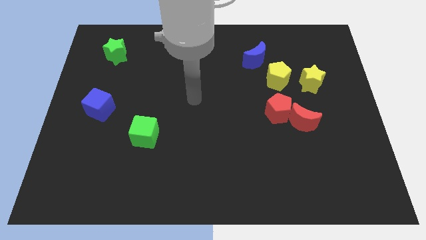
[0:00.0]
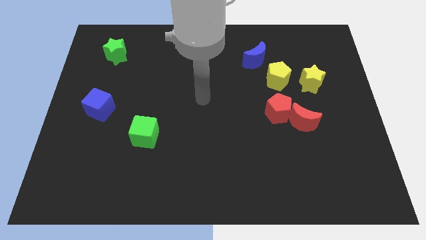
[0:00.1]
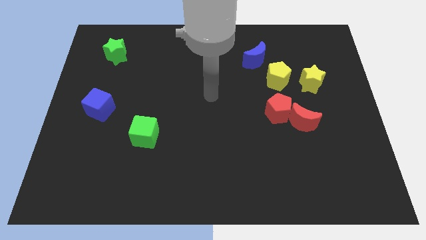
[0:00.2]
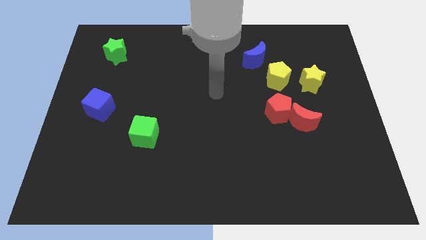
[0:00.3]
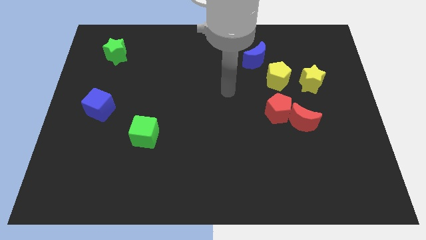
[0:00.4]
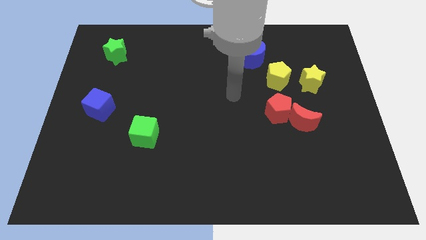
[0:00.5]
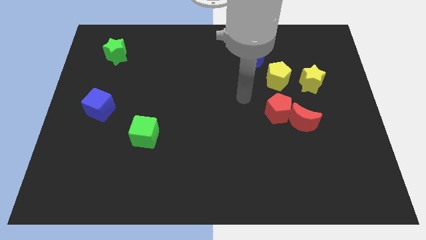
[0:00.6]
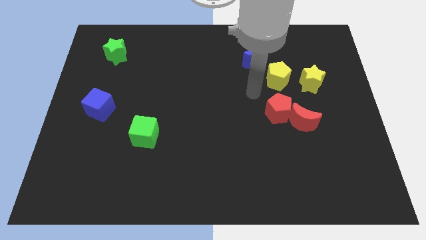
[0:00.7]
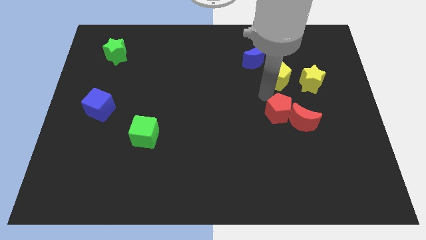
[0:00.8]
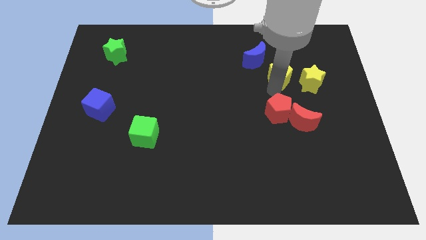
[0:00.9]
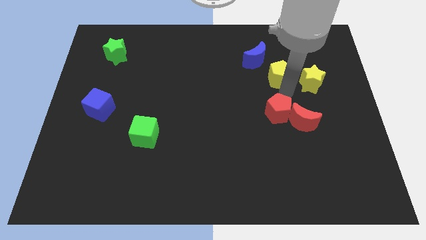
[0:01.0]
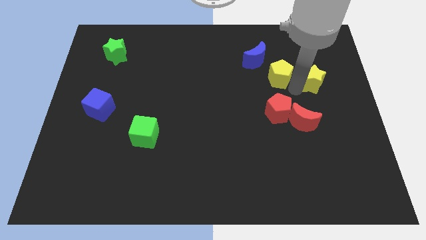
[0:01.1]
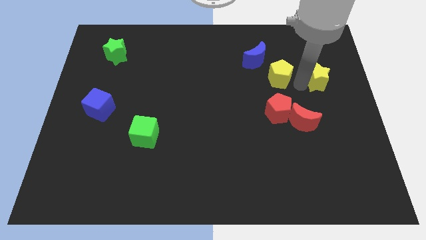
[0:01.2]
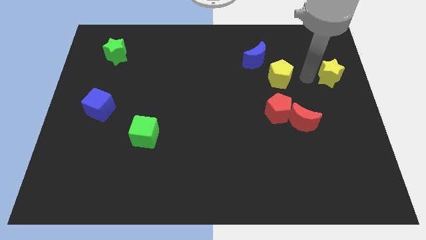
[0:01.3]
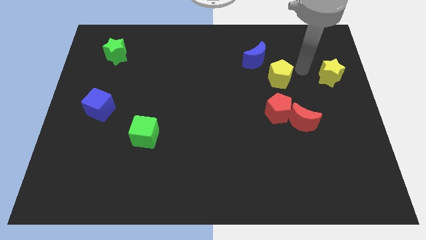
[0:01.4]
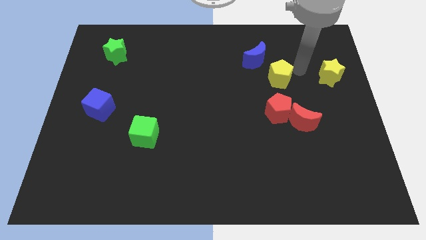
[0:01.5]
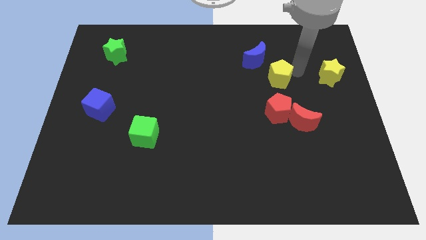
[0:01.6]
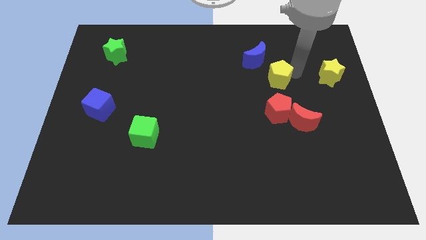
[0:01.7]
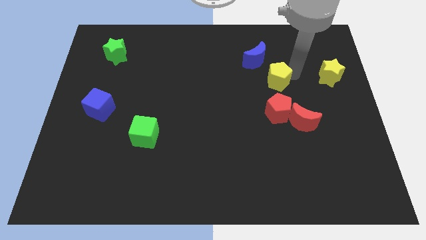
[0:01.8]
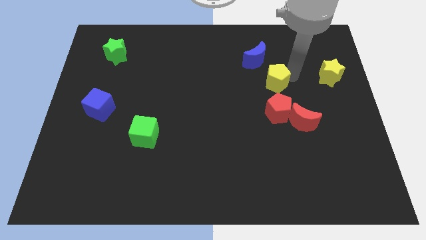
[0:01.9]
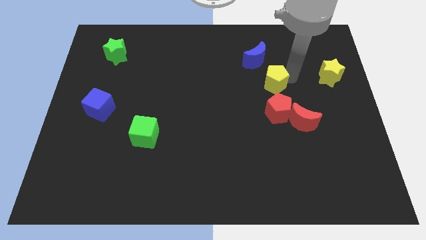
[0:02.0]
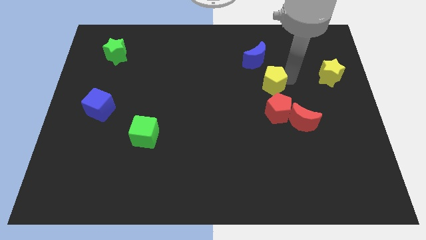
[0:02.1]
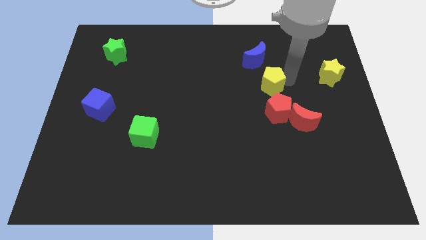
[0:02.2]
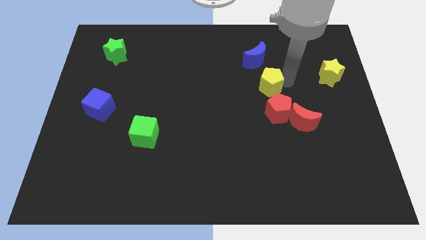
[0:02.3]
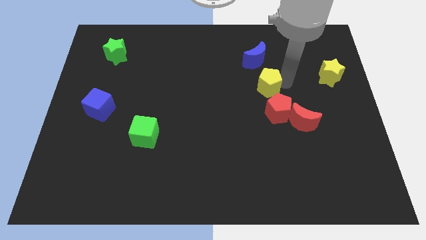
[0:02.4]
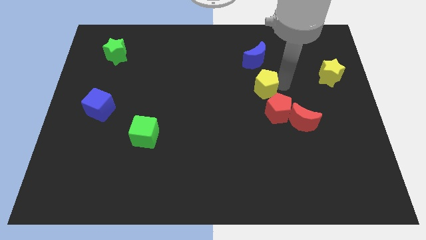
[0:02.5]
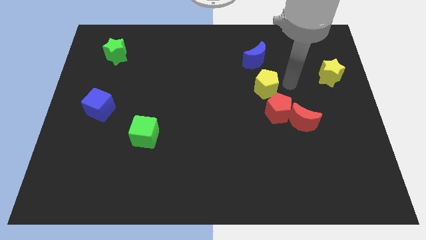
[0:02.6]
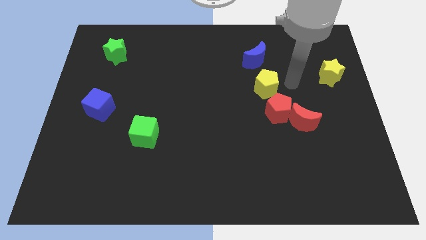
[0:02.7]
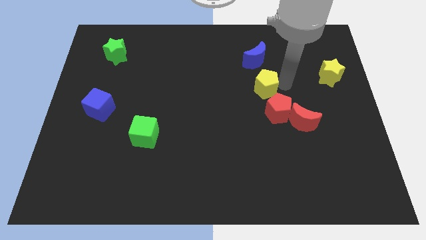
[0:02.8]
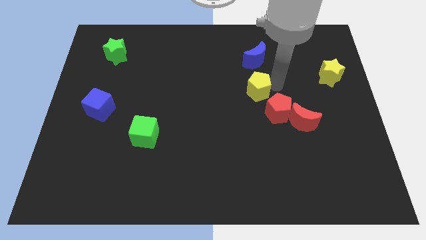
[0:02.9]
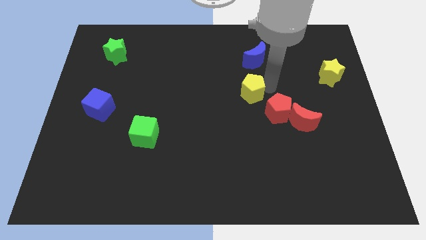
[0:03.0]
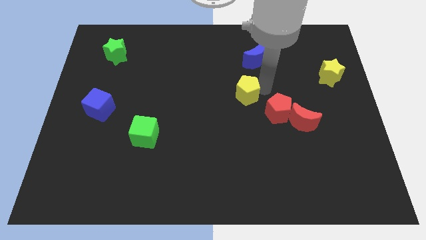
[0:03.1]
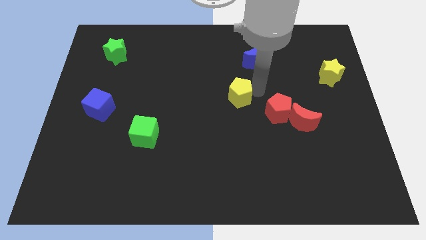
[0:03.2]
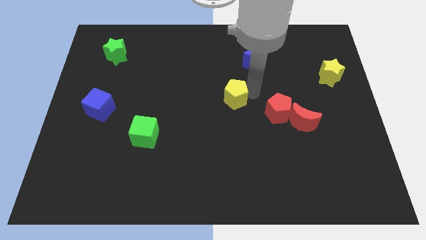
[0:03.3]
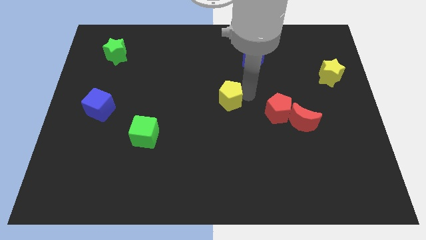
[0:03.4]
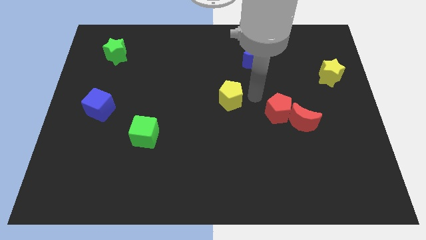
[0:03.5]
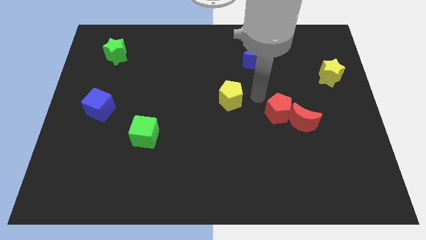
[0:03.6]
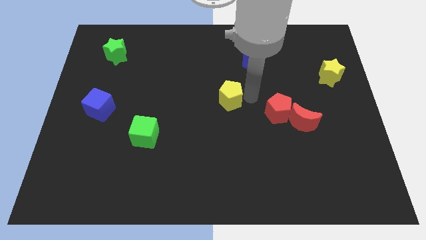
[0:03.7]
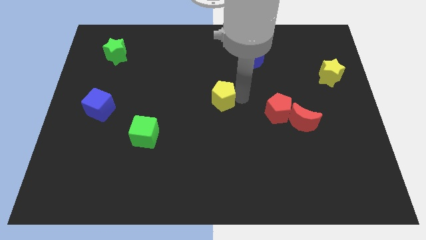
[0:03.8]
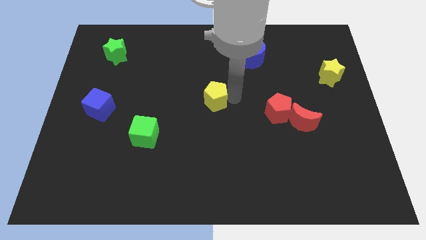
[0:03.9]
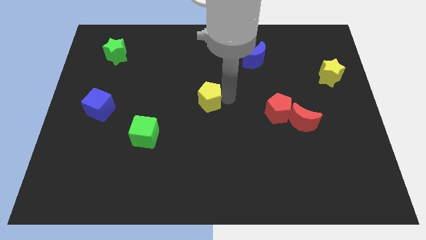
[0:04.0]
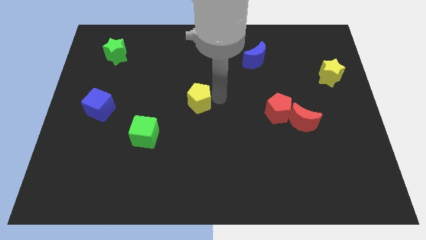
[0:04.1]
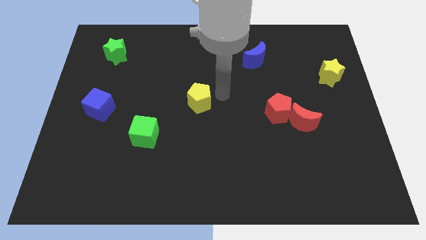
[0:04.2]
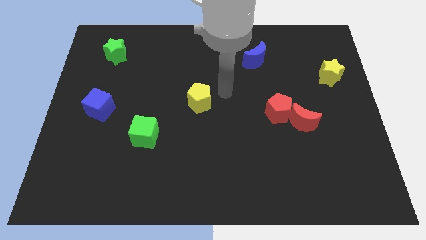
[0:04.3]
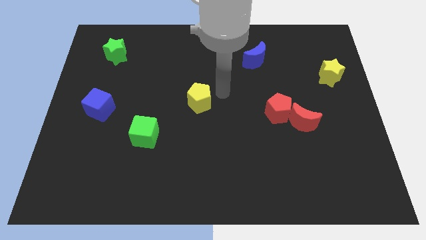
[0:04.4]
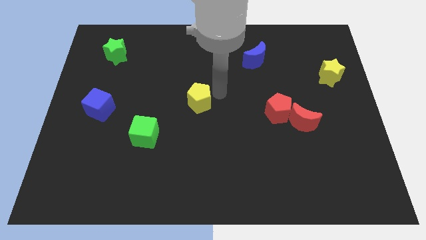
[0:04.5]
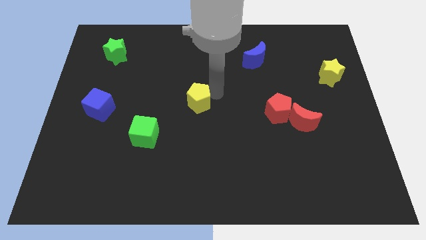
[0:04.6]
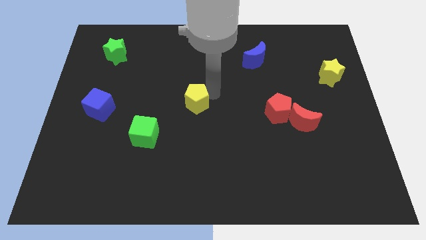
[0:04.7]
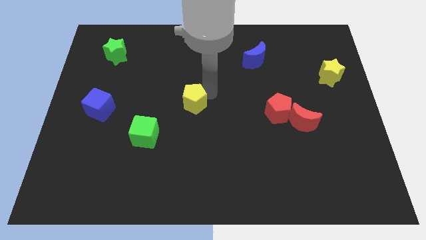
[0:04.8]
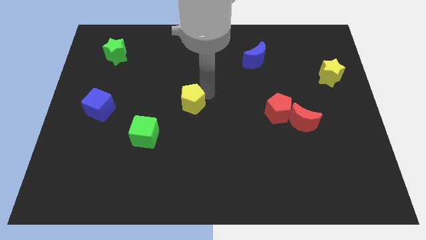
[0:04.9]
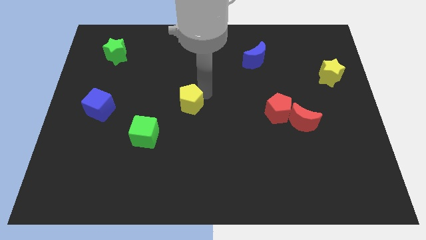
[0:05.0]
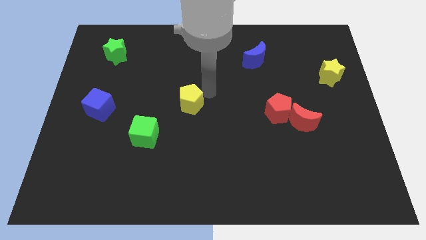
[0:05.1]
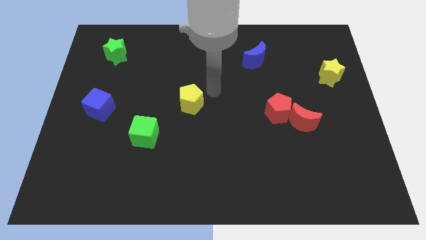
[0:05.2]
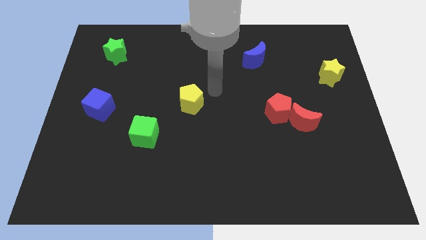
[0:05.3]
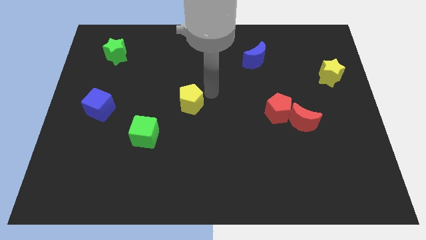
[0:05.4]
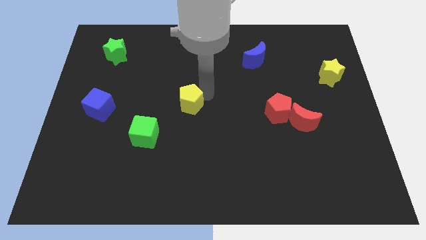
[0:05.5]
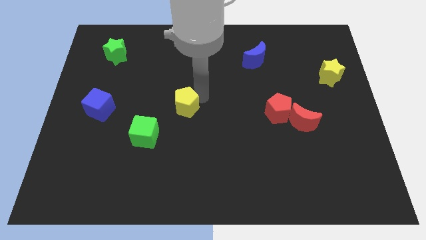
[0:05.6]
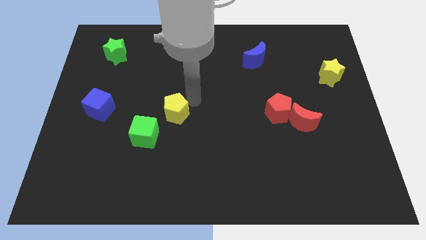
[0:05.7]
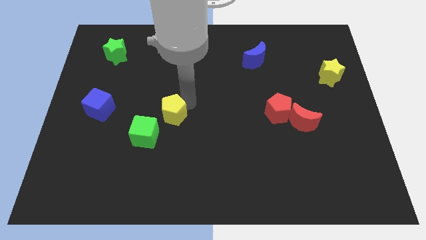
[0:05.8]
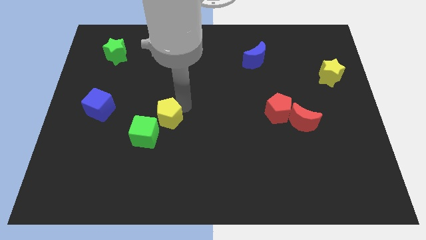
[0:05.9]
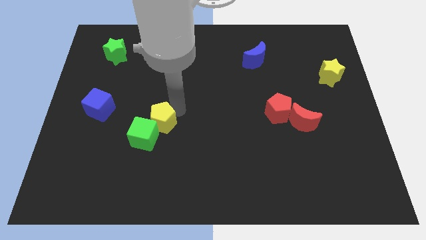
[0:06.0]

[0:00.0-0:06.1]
move the yellow pentagon next to the green cube

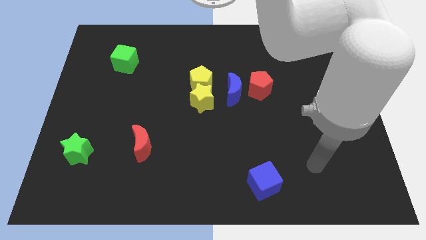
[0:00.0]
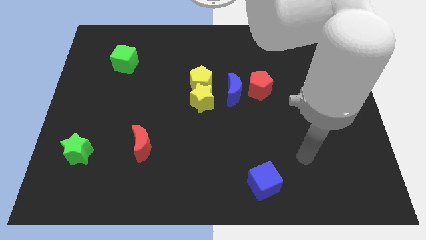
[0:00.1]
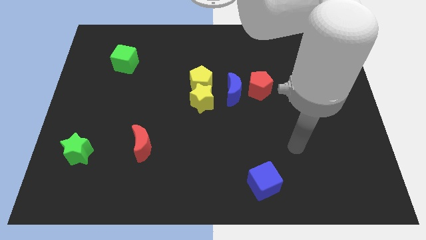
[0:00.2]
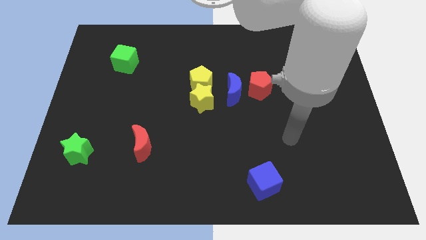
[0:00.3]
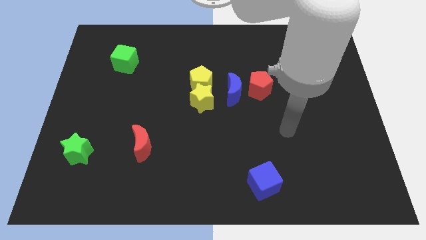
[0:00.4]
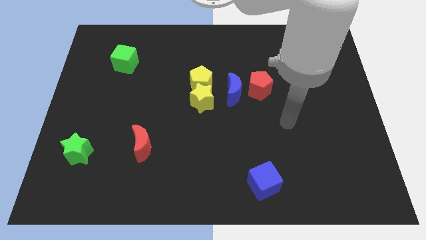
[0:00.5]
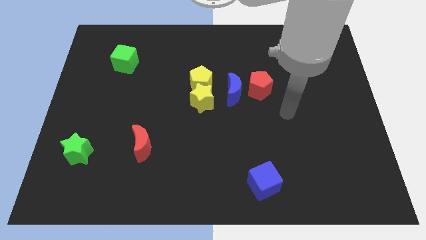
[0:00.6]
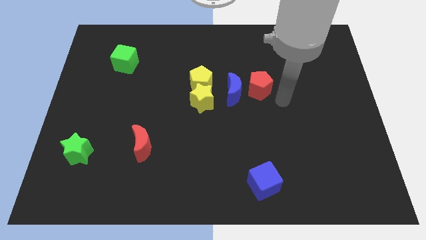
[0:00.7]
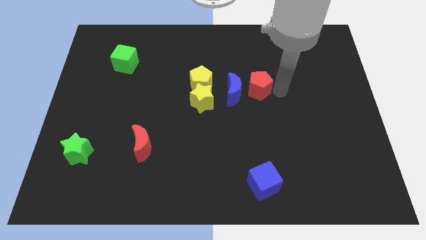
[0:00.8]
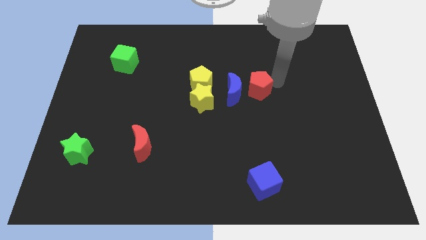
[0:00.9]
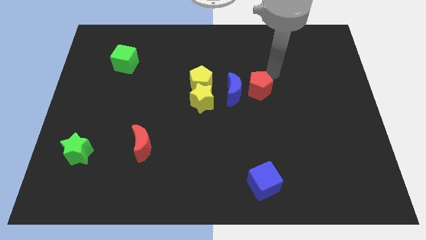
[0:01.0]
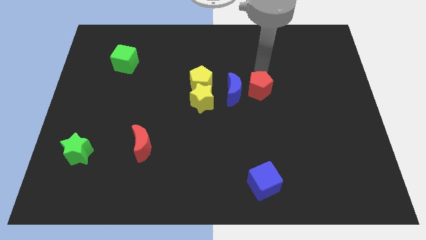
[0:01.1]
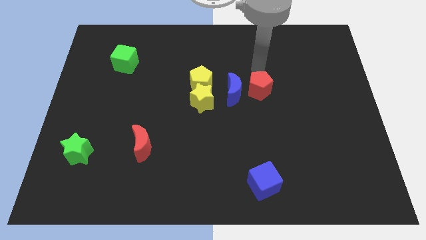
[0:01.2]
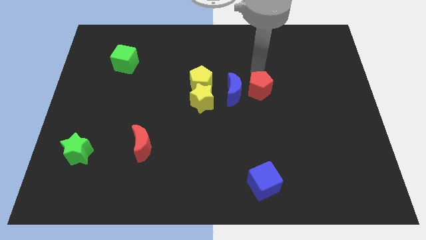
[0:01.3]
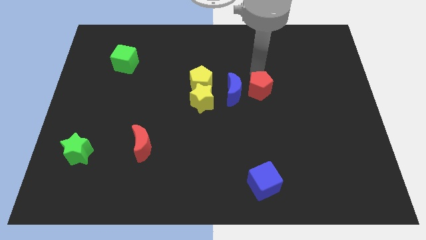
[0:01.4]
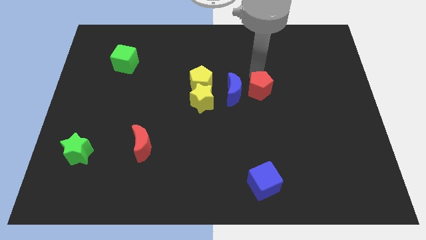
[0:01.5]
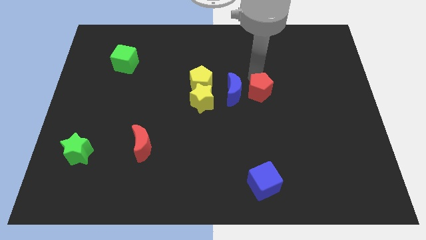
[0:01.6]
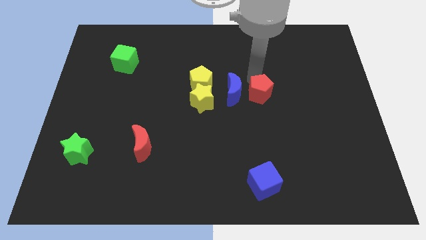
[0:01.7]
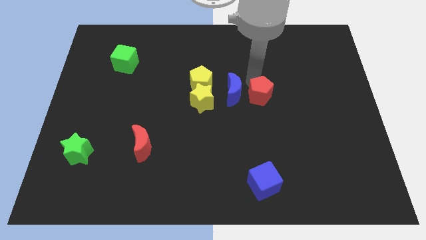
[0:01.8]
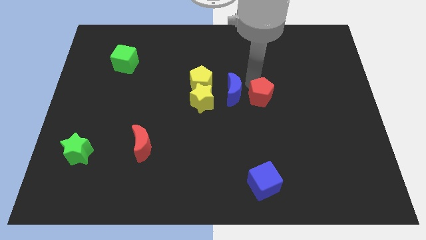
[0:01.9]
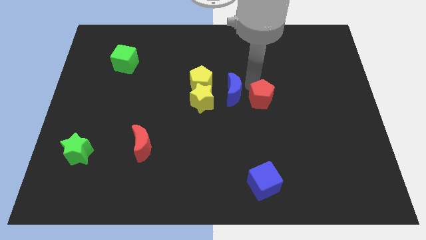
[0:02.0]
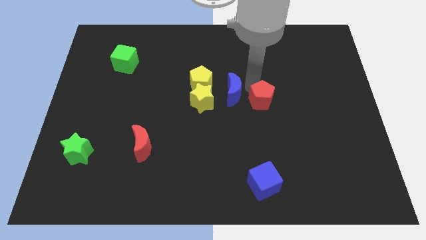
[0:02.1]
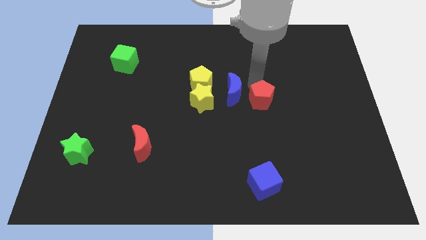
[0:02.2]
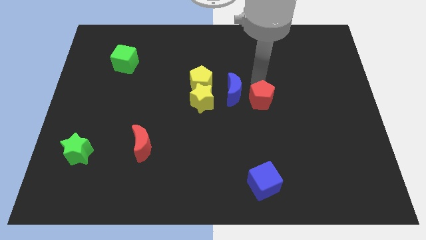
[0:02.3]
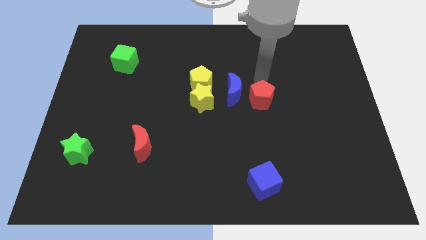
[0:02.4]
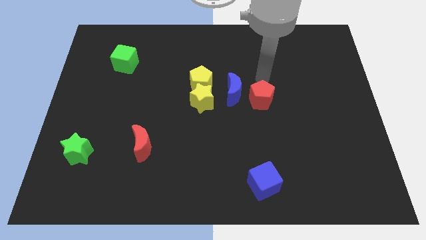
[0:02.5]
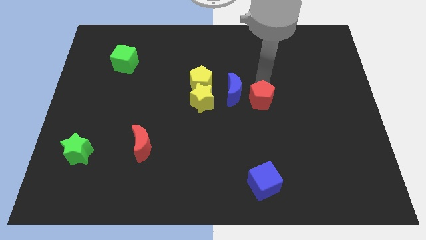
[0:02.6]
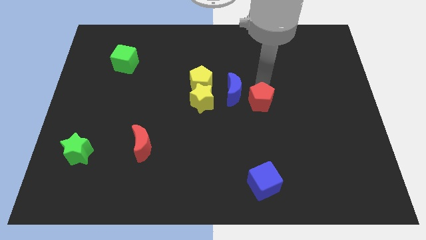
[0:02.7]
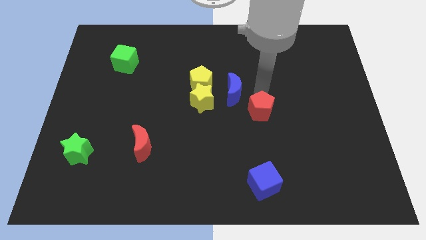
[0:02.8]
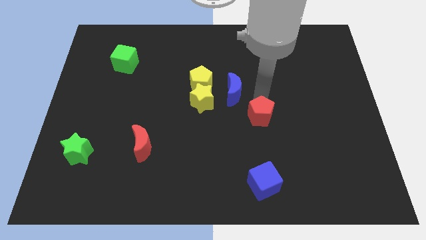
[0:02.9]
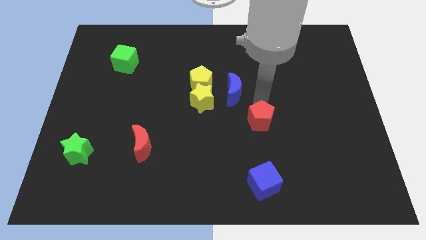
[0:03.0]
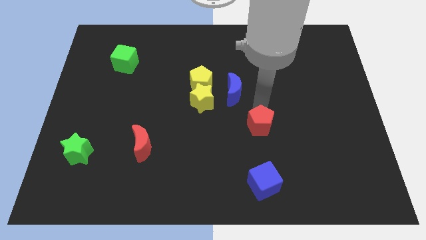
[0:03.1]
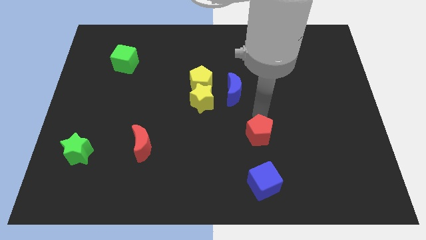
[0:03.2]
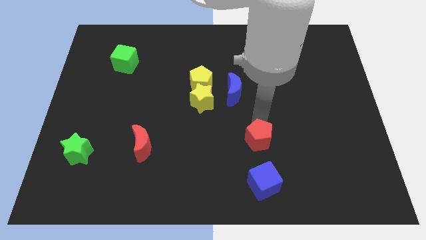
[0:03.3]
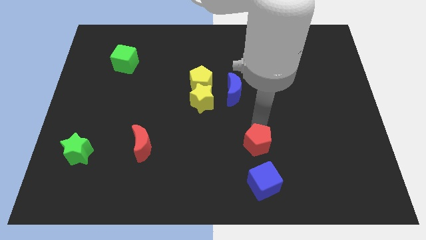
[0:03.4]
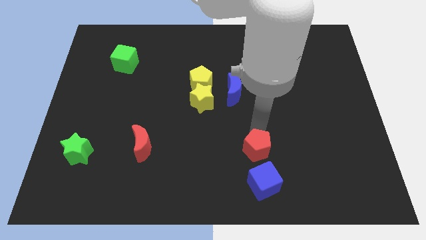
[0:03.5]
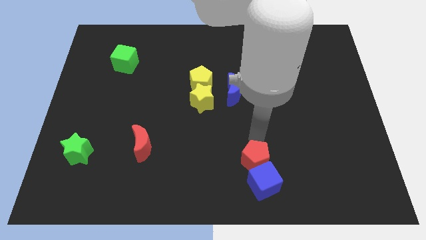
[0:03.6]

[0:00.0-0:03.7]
move the red pentagon next to the blue cube
